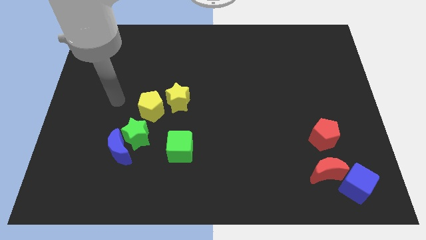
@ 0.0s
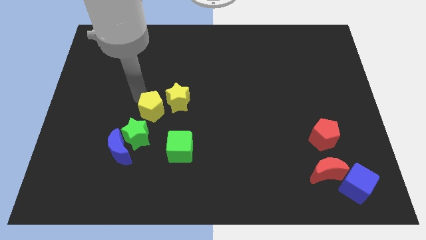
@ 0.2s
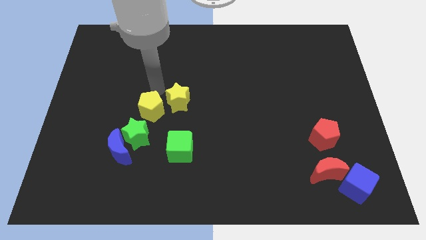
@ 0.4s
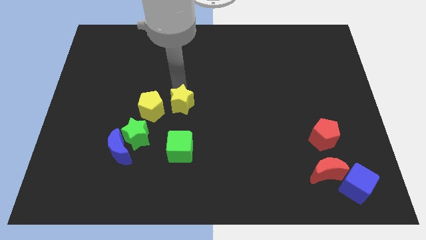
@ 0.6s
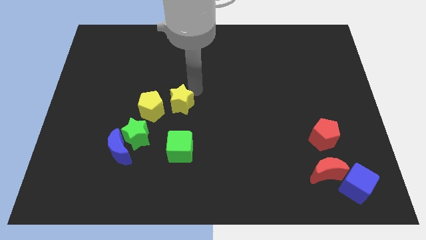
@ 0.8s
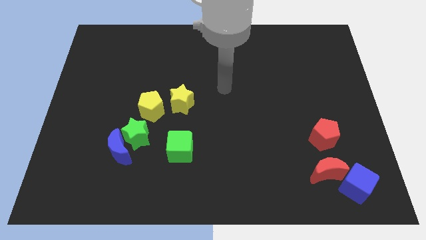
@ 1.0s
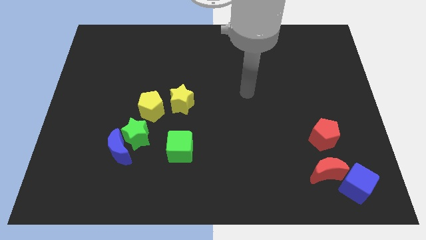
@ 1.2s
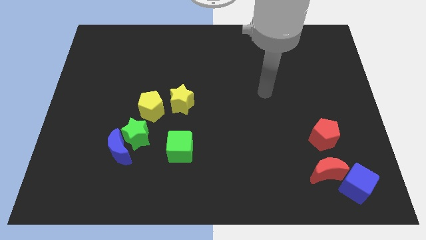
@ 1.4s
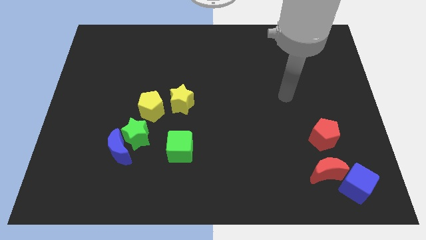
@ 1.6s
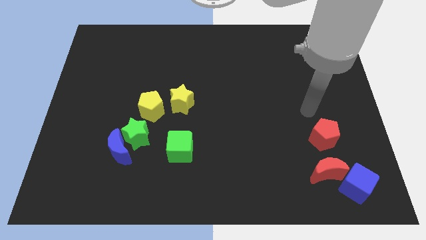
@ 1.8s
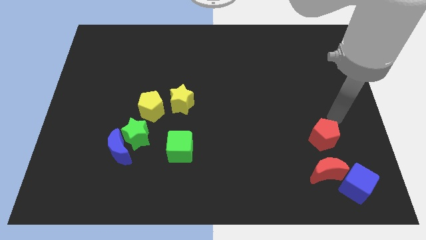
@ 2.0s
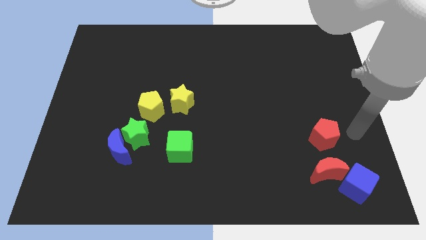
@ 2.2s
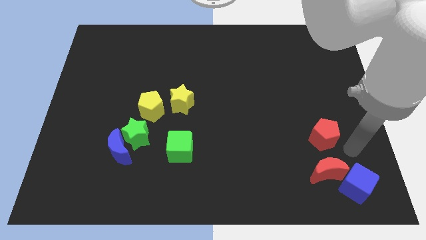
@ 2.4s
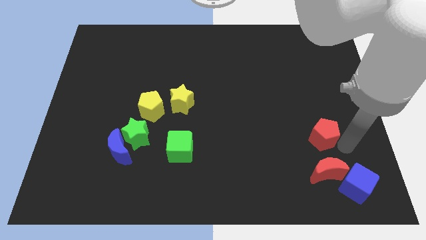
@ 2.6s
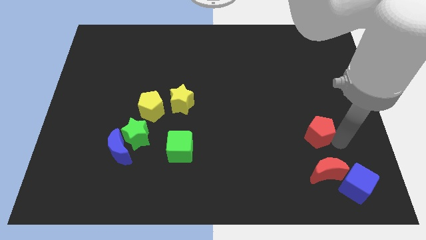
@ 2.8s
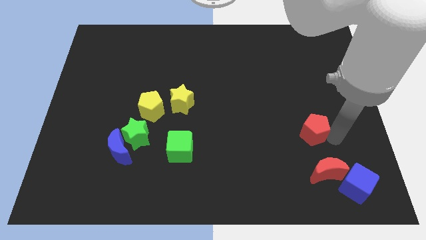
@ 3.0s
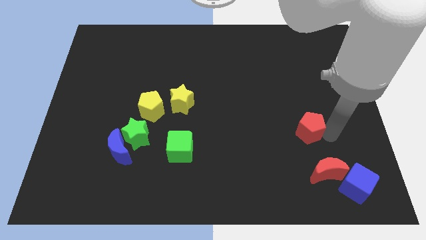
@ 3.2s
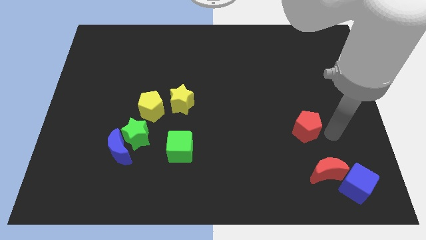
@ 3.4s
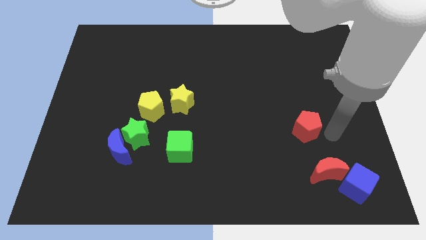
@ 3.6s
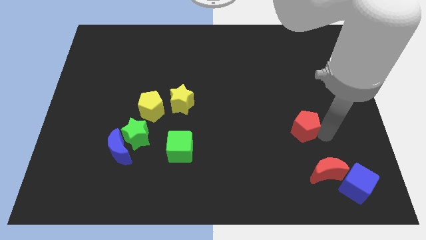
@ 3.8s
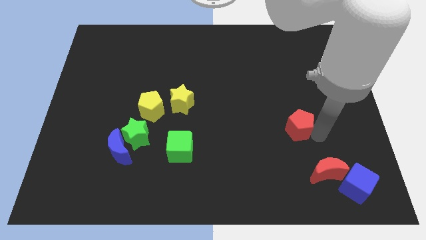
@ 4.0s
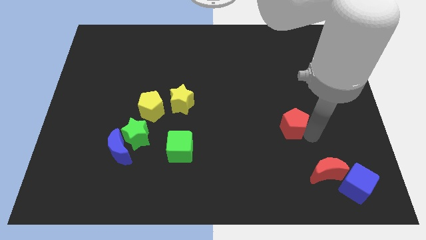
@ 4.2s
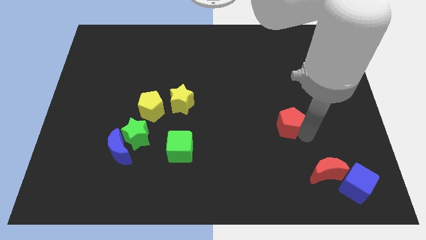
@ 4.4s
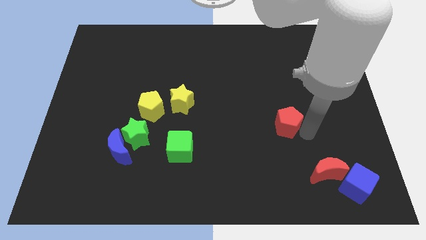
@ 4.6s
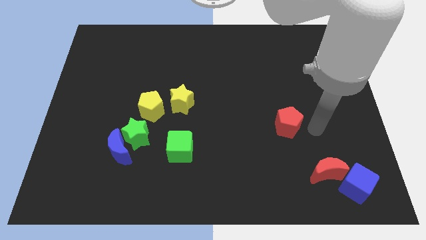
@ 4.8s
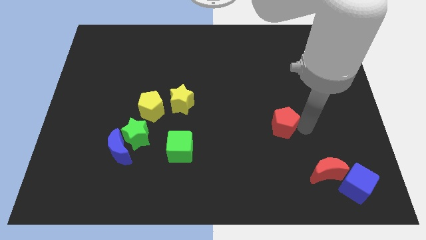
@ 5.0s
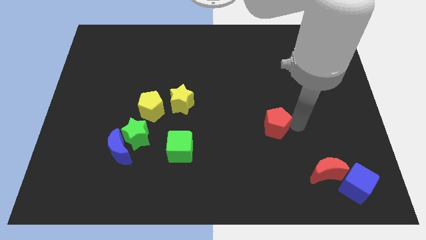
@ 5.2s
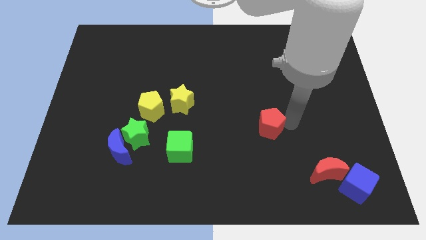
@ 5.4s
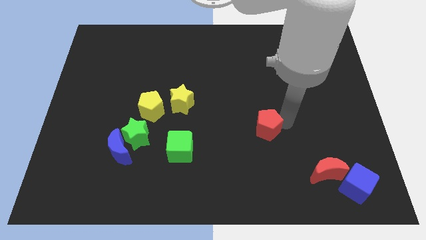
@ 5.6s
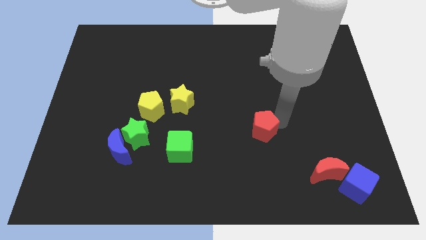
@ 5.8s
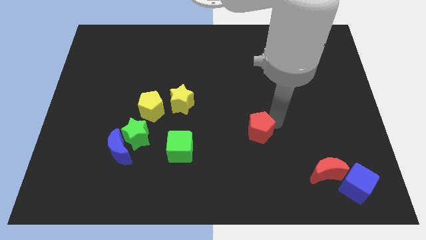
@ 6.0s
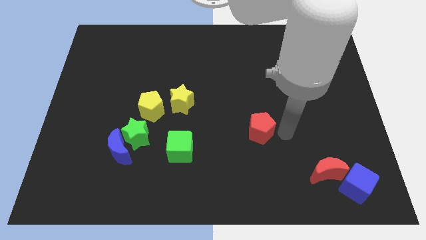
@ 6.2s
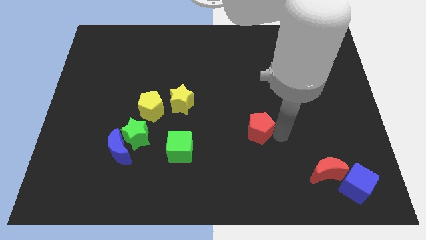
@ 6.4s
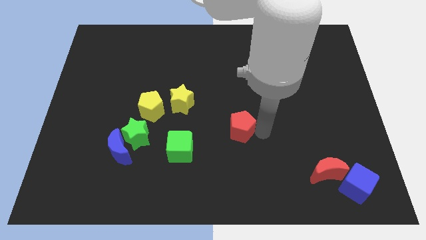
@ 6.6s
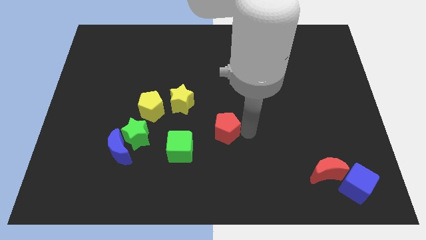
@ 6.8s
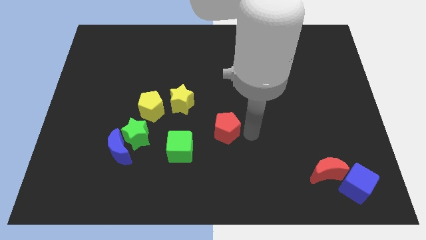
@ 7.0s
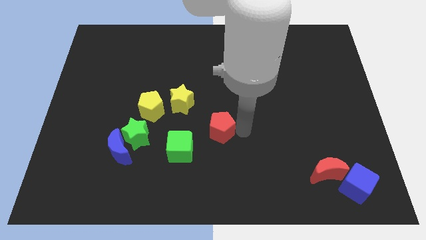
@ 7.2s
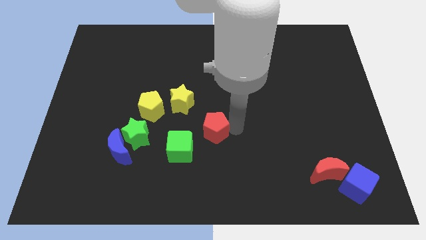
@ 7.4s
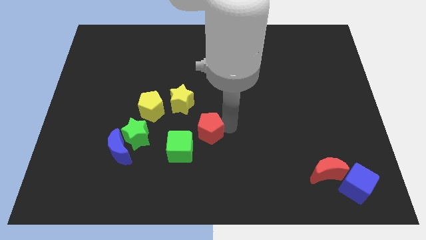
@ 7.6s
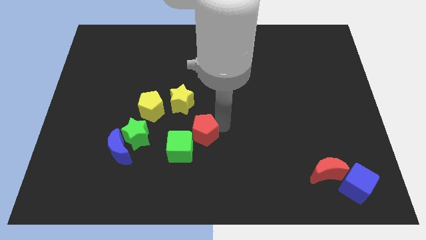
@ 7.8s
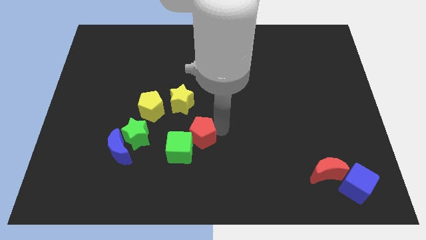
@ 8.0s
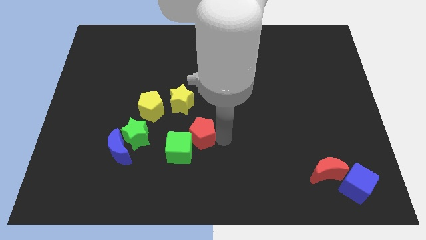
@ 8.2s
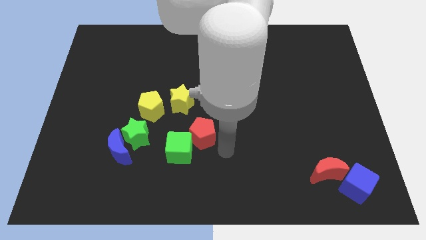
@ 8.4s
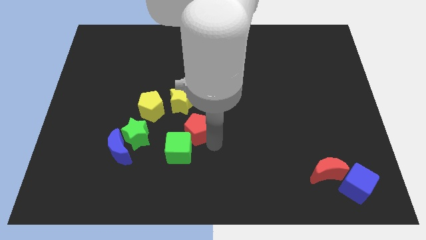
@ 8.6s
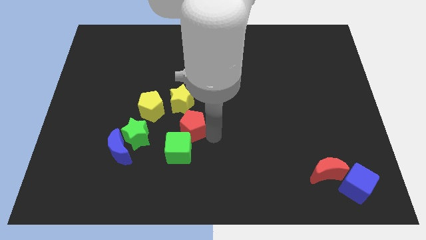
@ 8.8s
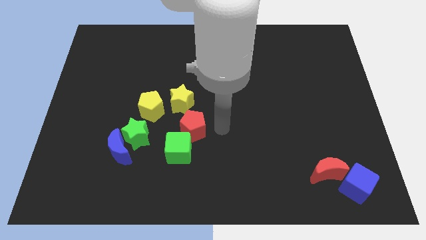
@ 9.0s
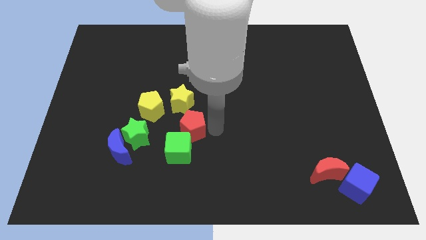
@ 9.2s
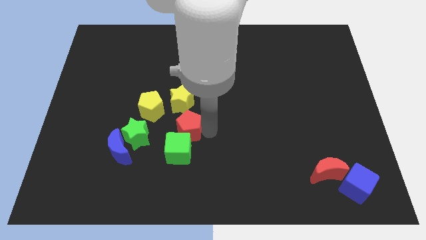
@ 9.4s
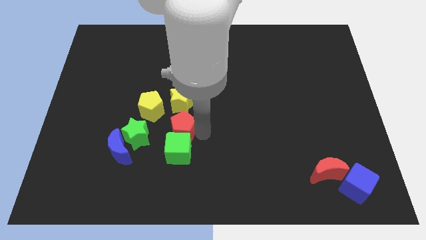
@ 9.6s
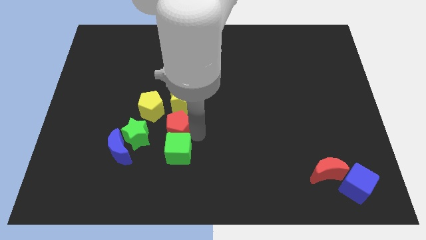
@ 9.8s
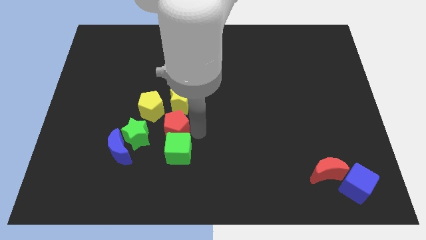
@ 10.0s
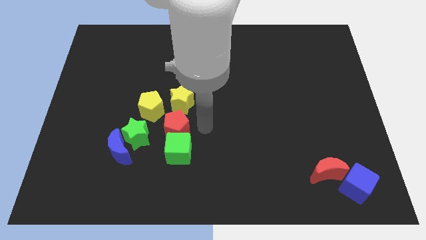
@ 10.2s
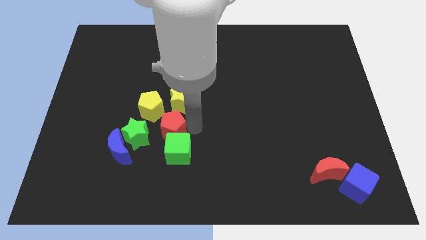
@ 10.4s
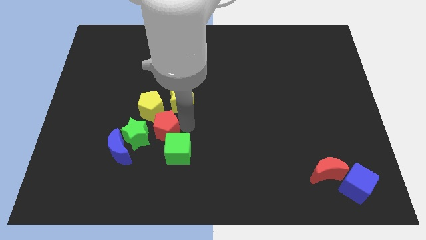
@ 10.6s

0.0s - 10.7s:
slide the red pentagon towards the green star

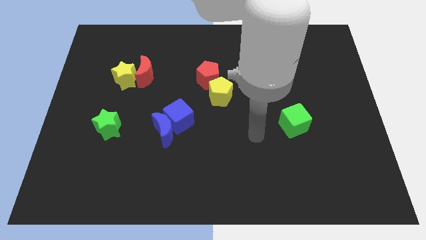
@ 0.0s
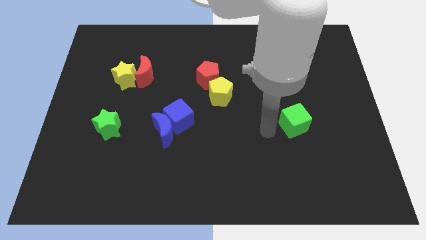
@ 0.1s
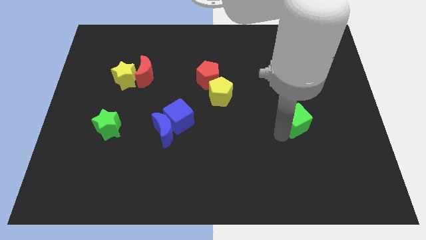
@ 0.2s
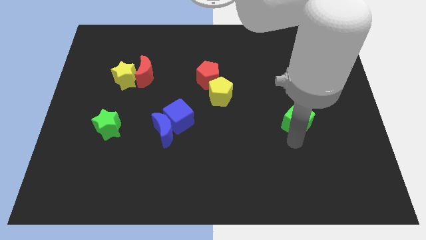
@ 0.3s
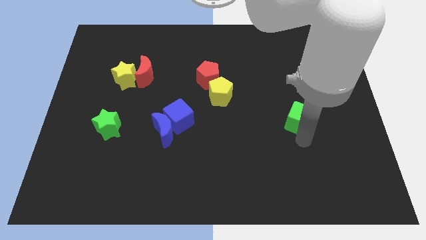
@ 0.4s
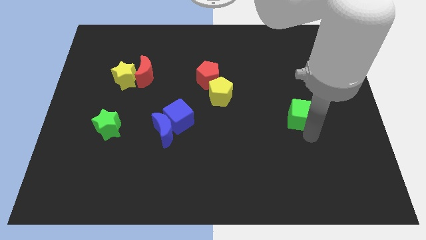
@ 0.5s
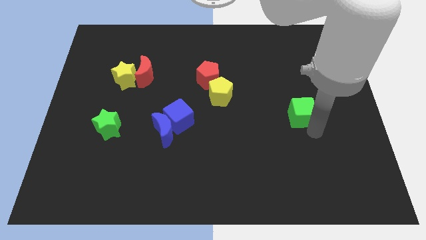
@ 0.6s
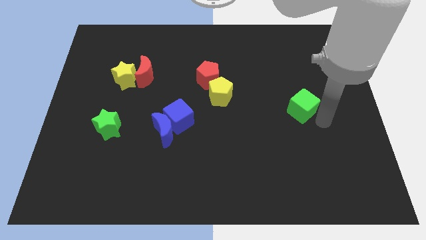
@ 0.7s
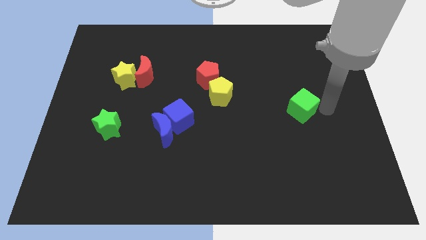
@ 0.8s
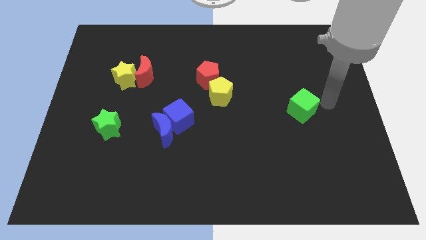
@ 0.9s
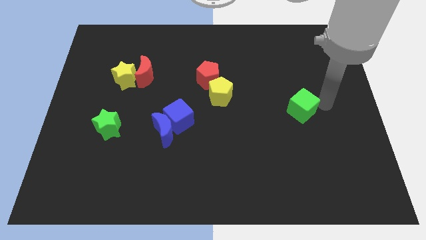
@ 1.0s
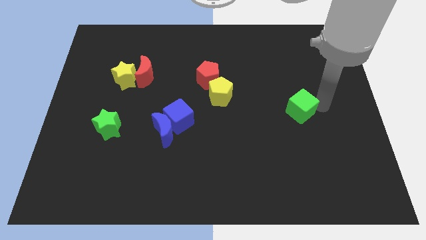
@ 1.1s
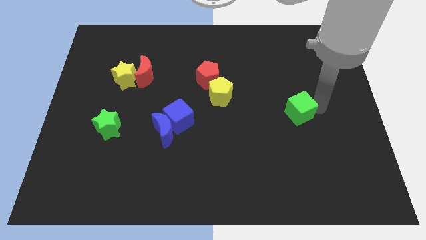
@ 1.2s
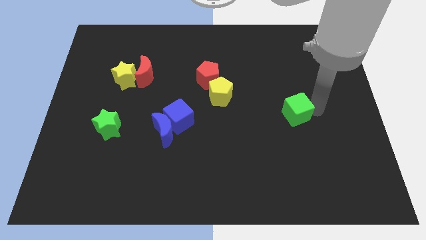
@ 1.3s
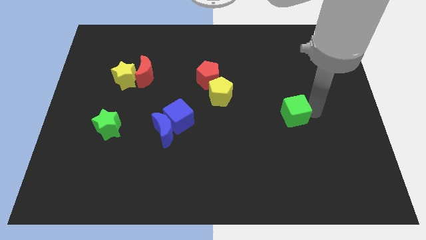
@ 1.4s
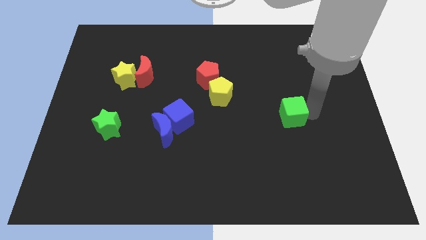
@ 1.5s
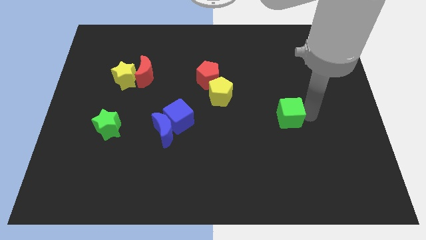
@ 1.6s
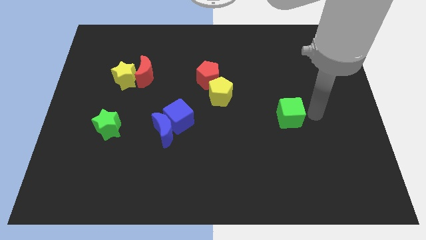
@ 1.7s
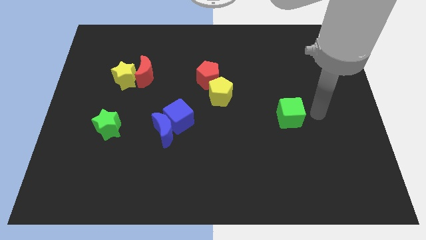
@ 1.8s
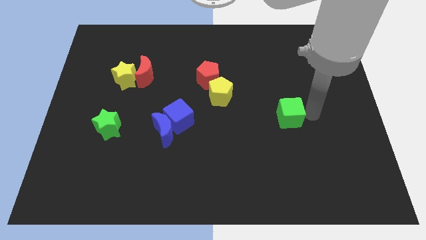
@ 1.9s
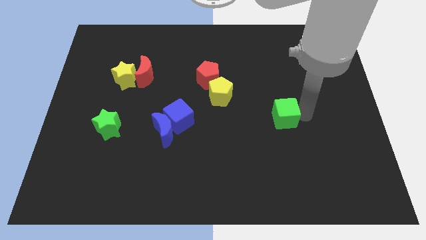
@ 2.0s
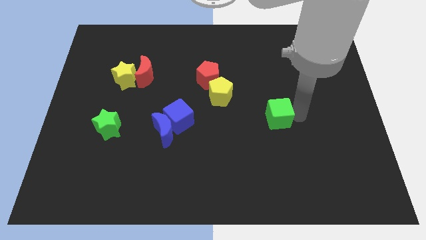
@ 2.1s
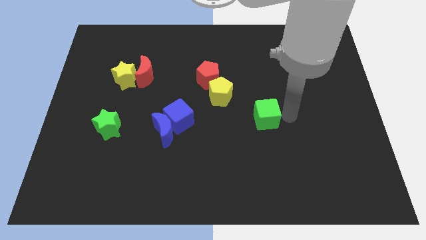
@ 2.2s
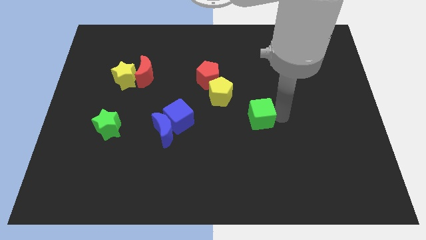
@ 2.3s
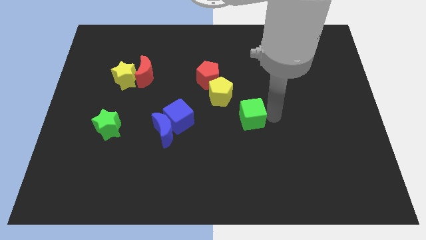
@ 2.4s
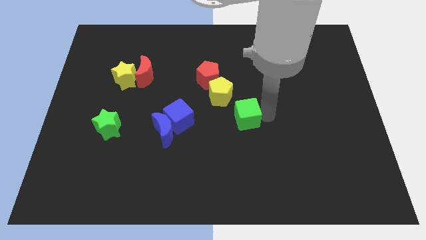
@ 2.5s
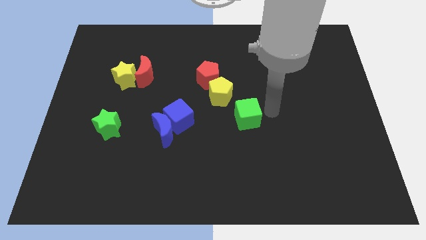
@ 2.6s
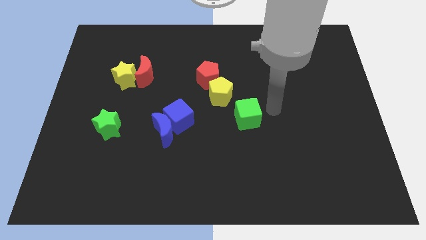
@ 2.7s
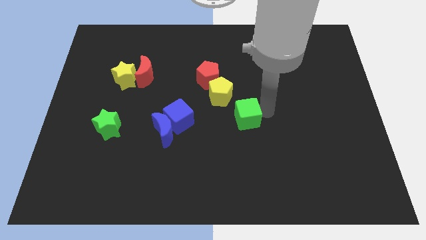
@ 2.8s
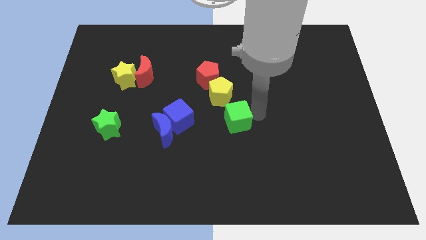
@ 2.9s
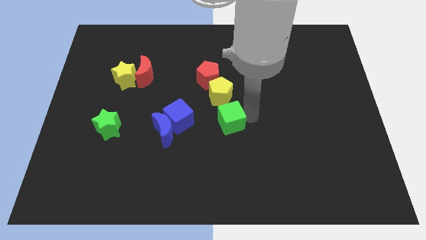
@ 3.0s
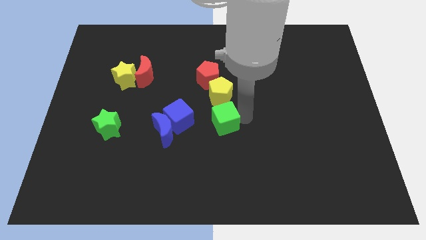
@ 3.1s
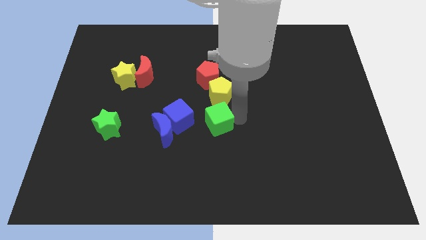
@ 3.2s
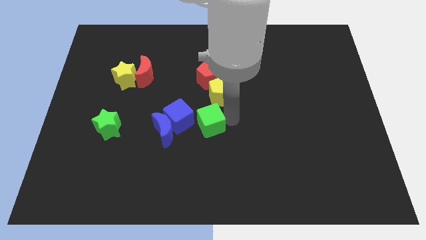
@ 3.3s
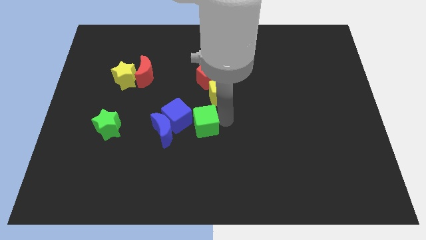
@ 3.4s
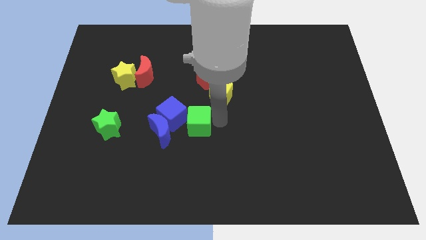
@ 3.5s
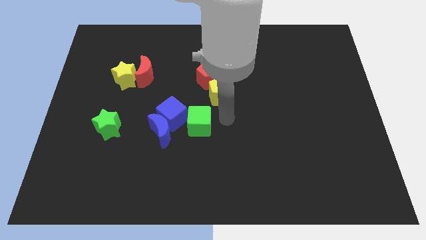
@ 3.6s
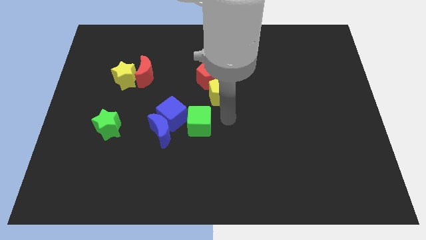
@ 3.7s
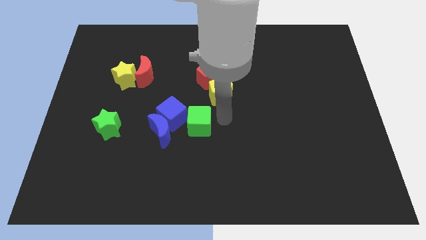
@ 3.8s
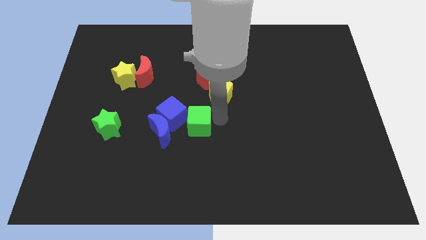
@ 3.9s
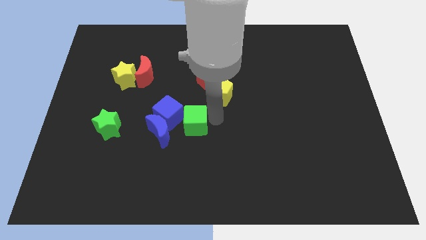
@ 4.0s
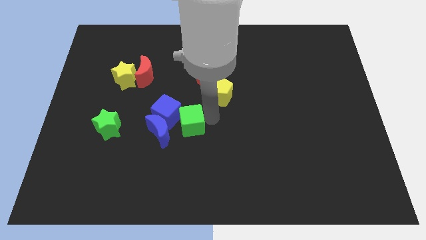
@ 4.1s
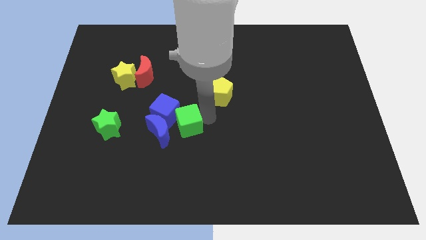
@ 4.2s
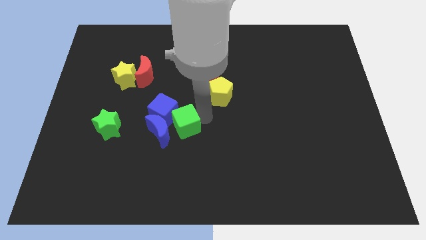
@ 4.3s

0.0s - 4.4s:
move the green cube towards the blue moon
